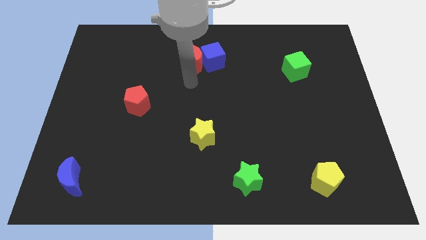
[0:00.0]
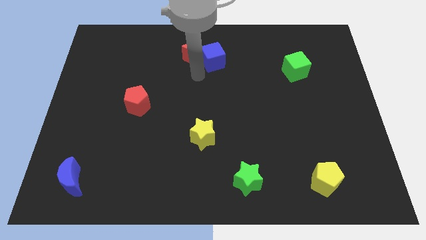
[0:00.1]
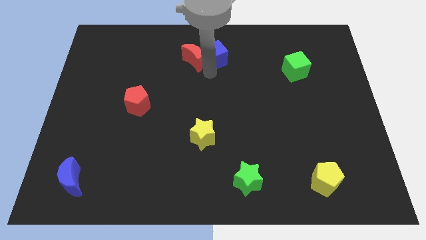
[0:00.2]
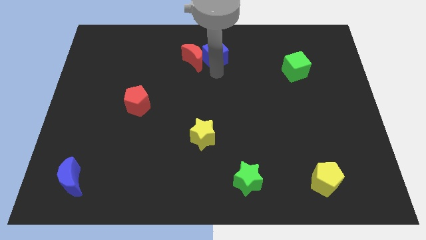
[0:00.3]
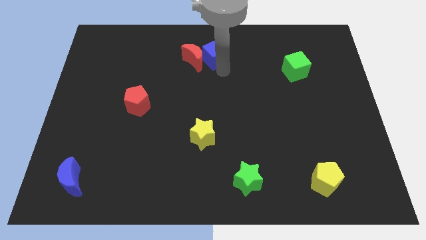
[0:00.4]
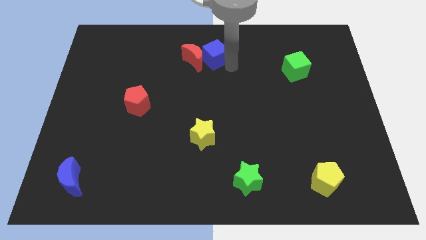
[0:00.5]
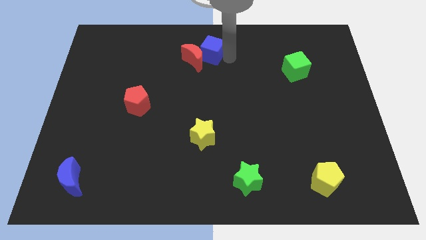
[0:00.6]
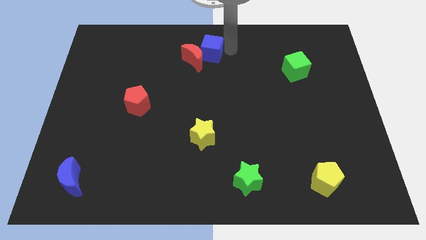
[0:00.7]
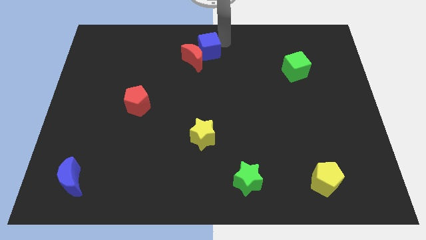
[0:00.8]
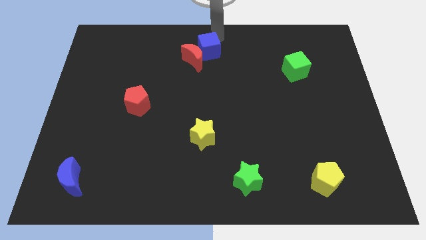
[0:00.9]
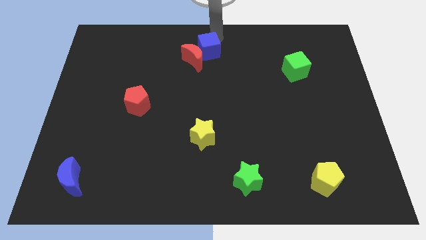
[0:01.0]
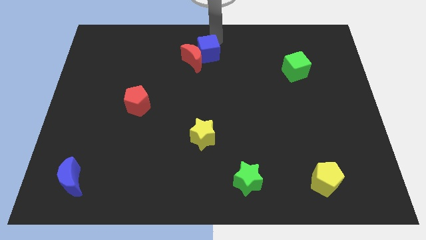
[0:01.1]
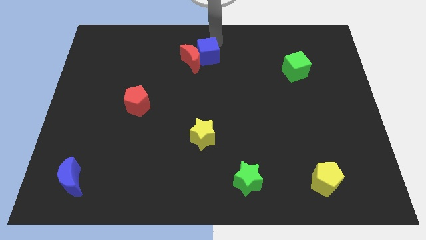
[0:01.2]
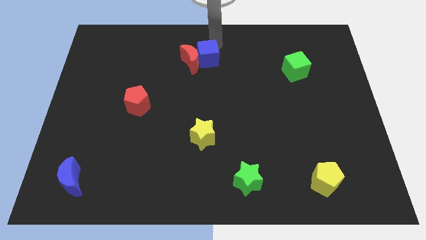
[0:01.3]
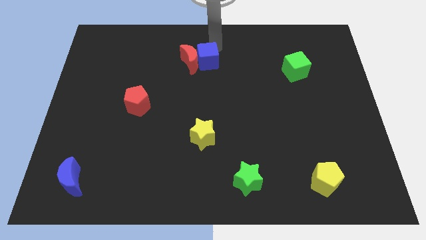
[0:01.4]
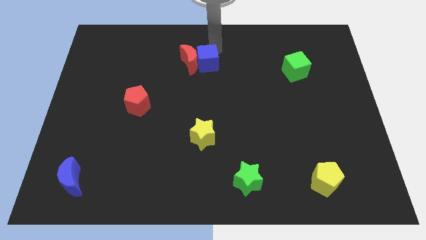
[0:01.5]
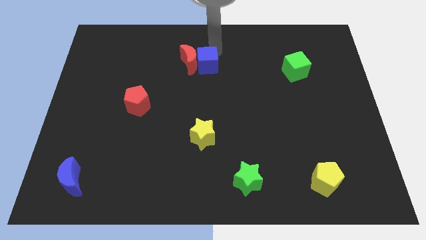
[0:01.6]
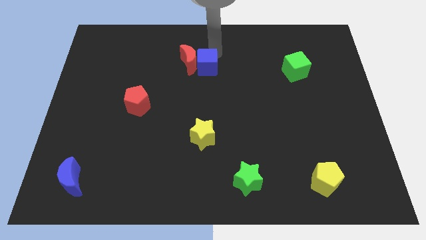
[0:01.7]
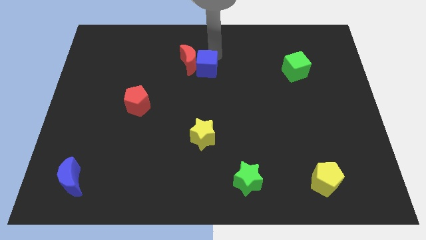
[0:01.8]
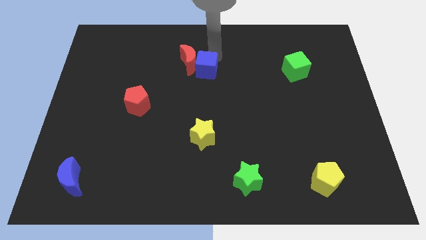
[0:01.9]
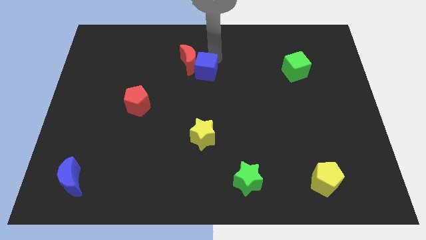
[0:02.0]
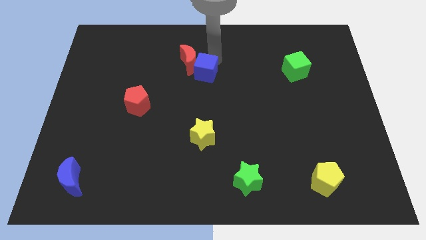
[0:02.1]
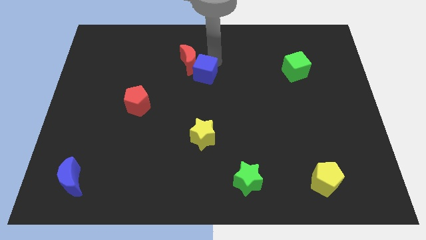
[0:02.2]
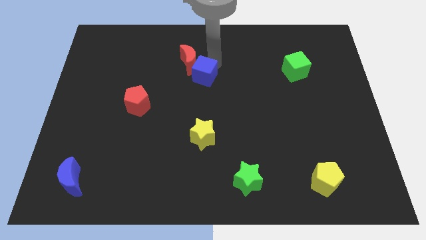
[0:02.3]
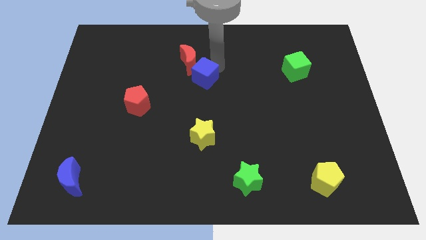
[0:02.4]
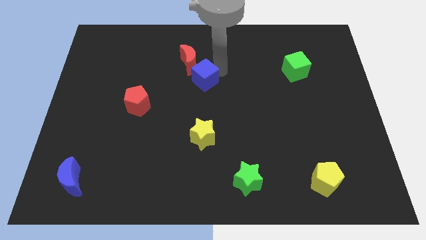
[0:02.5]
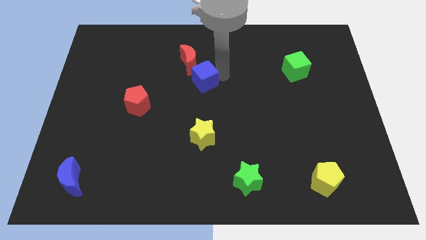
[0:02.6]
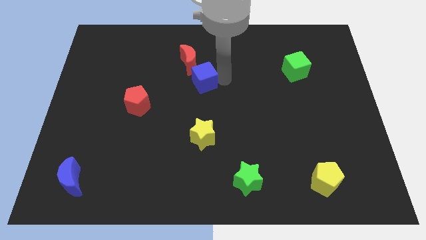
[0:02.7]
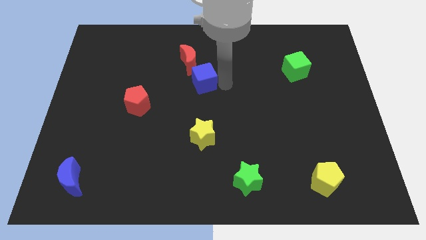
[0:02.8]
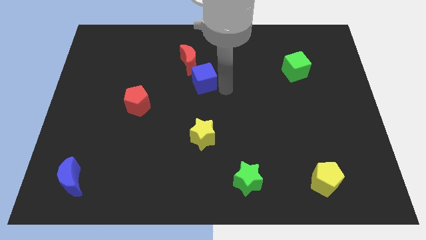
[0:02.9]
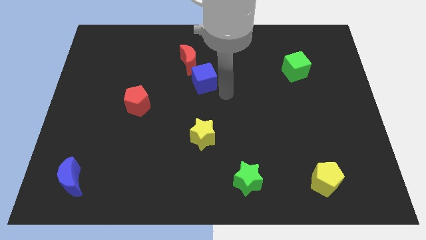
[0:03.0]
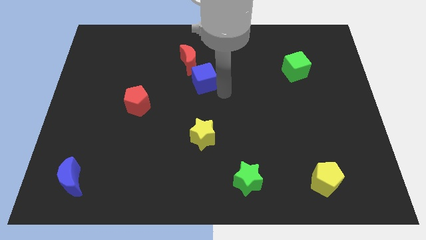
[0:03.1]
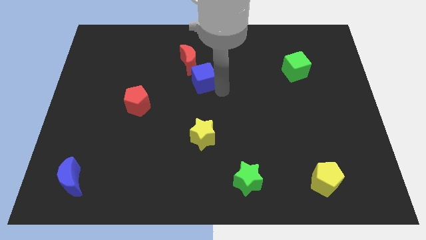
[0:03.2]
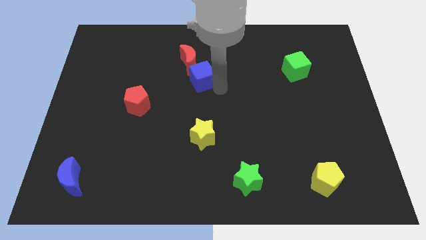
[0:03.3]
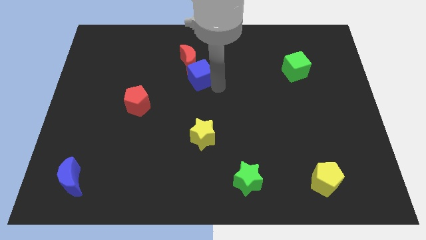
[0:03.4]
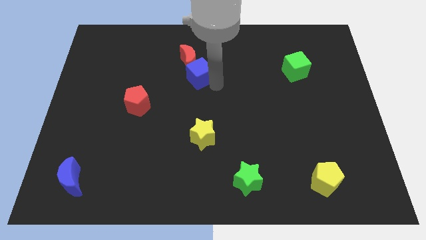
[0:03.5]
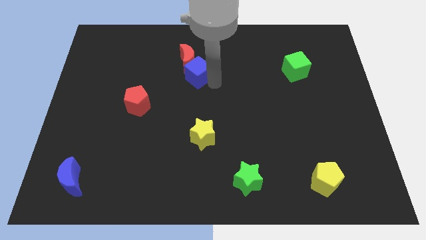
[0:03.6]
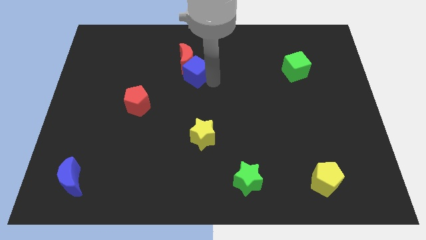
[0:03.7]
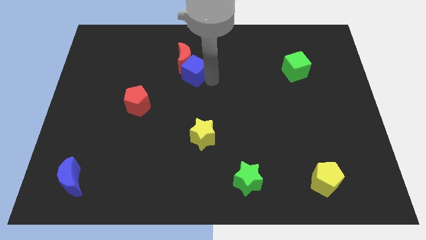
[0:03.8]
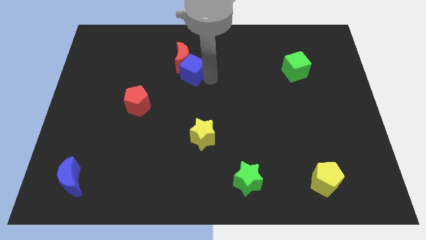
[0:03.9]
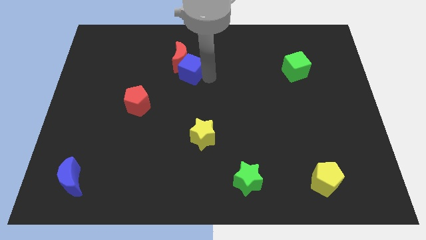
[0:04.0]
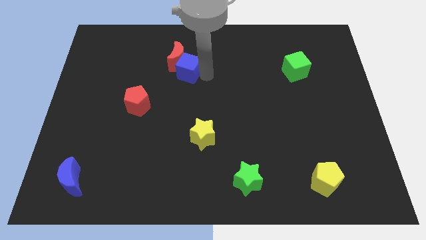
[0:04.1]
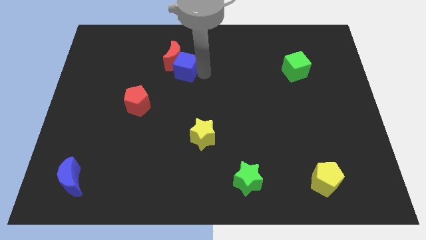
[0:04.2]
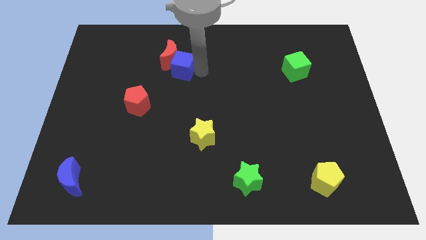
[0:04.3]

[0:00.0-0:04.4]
slightly push the blue cube to the left

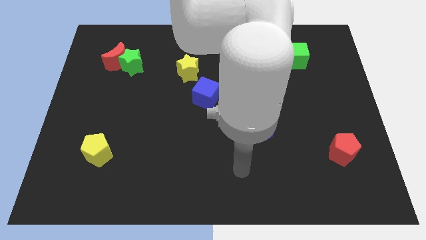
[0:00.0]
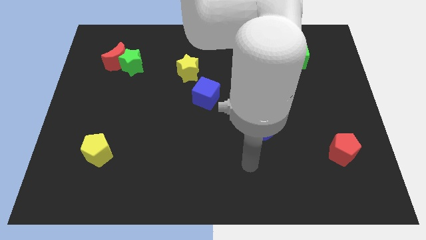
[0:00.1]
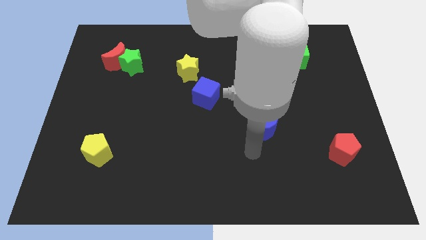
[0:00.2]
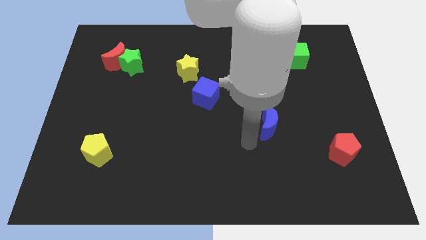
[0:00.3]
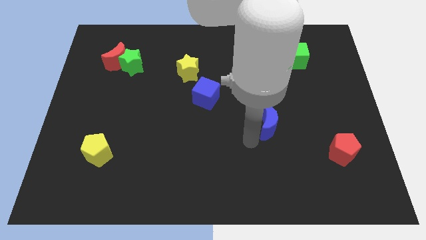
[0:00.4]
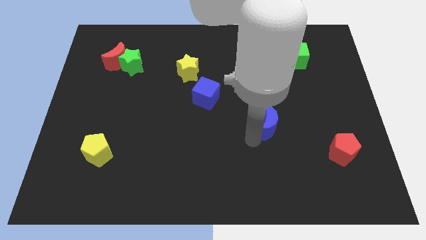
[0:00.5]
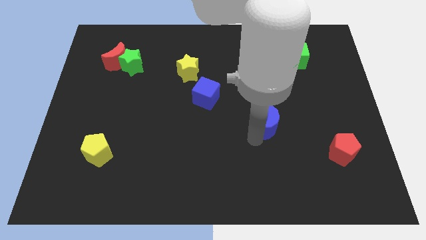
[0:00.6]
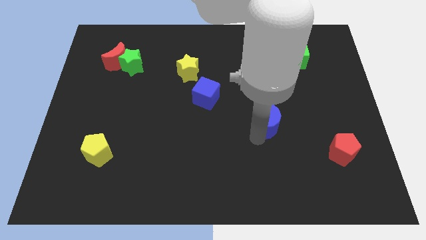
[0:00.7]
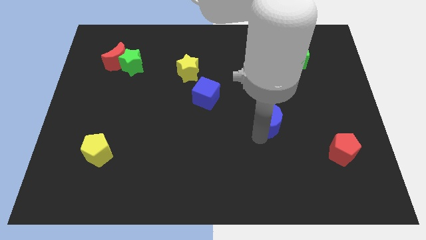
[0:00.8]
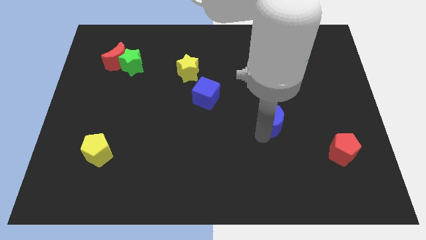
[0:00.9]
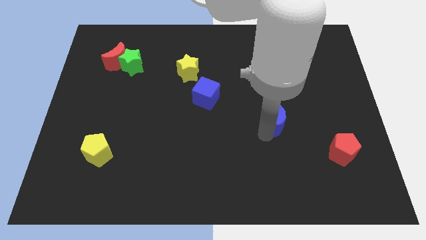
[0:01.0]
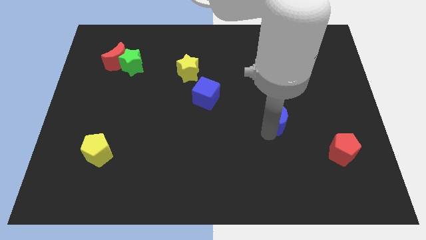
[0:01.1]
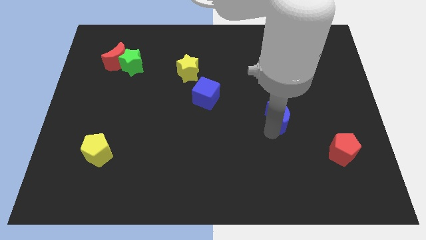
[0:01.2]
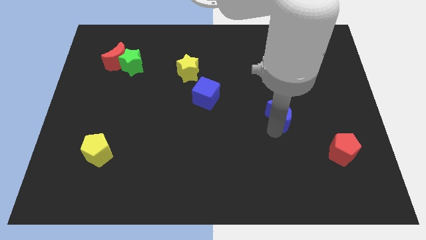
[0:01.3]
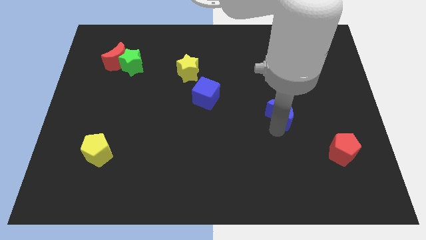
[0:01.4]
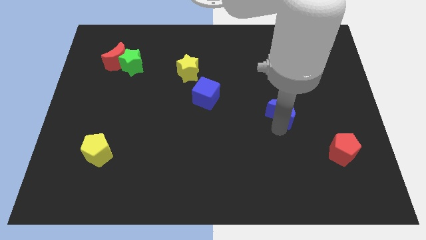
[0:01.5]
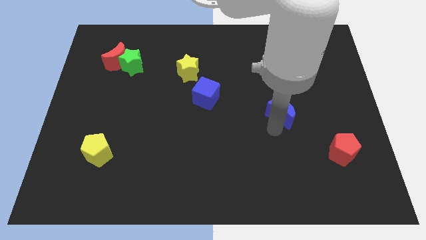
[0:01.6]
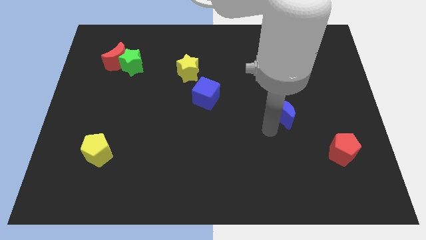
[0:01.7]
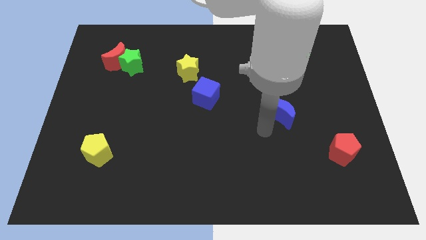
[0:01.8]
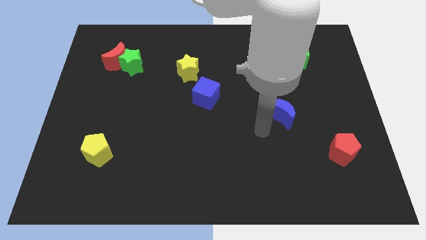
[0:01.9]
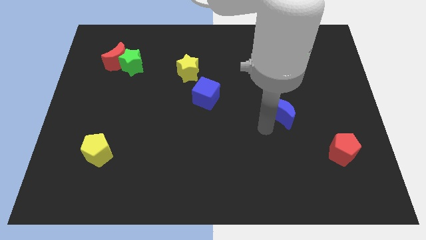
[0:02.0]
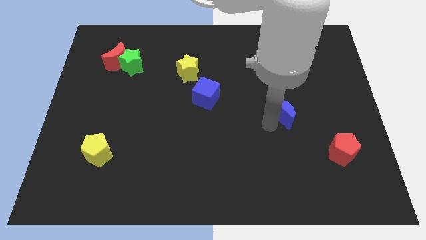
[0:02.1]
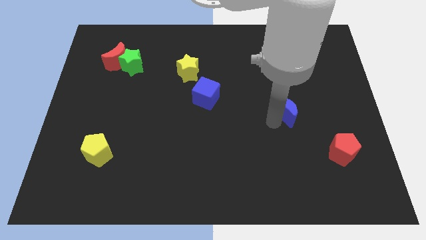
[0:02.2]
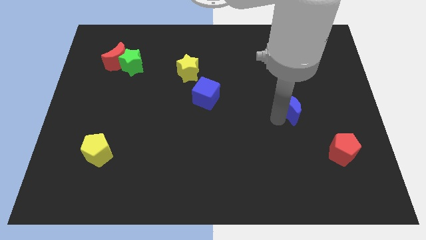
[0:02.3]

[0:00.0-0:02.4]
move the blue moon upwards and right a bit

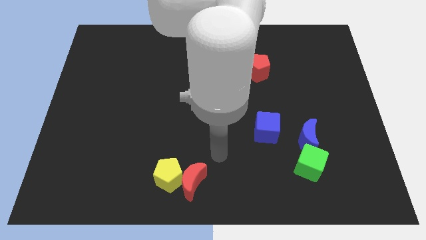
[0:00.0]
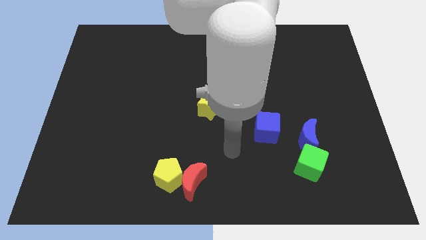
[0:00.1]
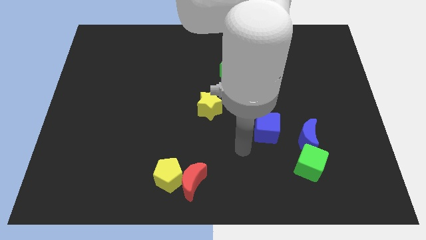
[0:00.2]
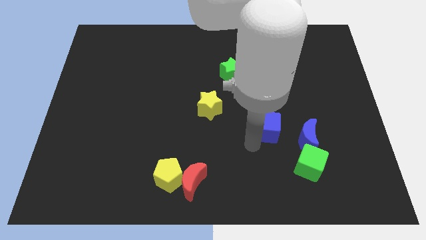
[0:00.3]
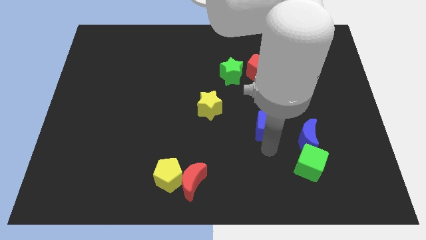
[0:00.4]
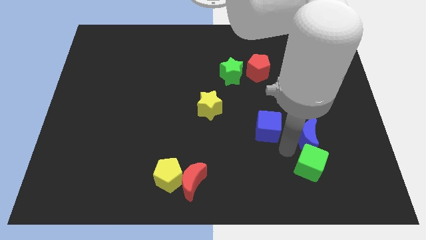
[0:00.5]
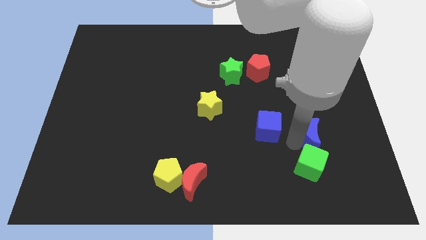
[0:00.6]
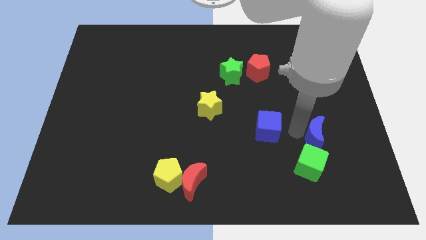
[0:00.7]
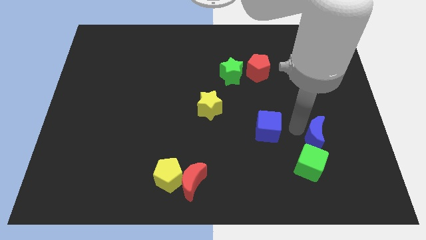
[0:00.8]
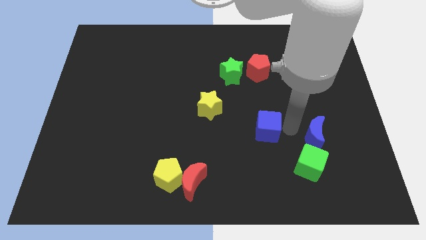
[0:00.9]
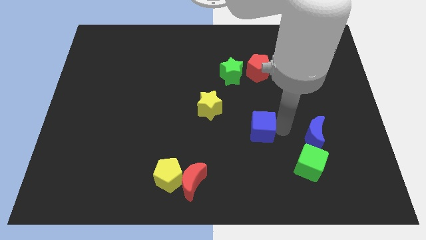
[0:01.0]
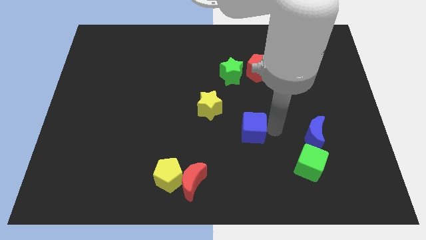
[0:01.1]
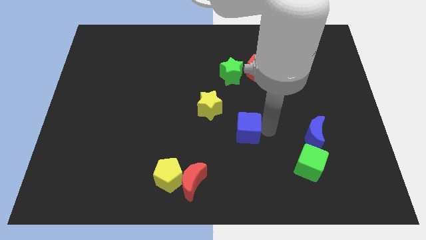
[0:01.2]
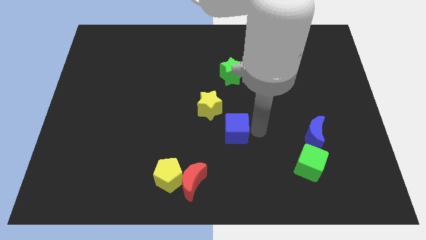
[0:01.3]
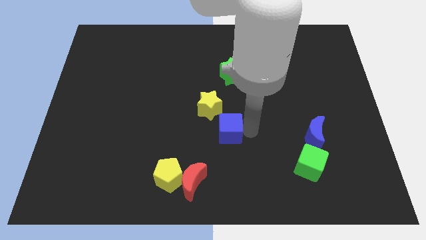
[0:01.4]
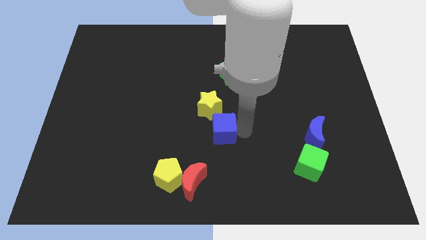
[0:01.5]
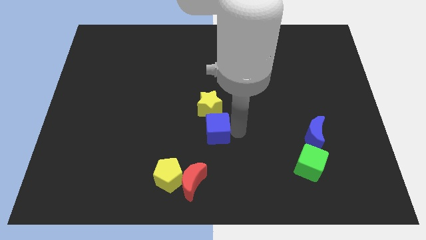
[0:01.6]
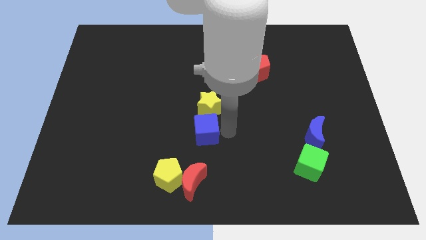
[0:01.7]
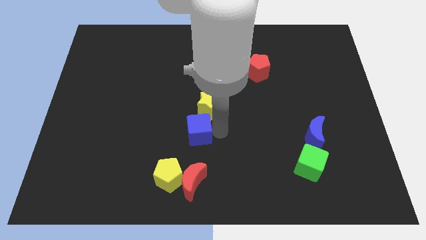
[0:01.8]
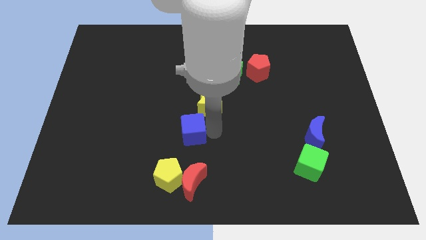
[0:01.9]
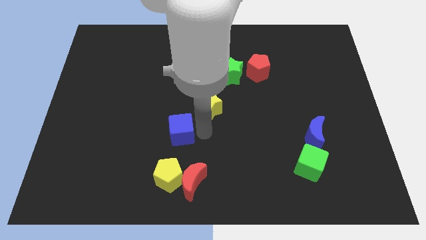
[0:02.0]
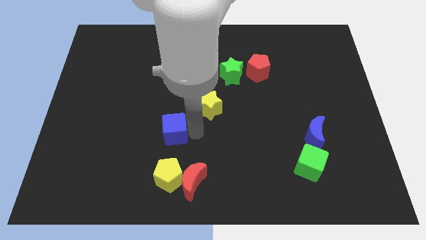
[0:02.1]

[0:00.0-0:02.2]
move the blue cube left
